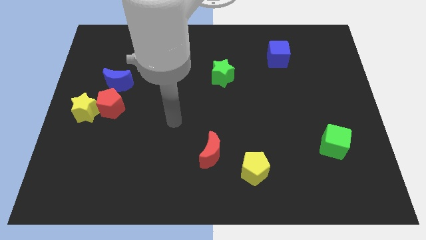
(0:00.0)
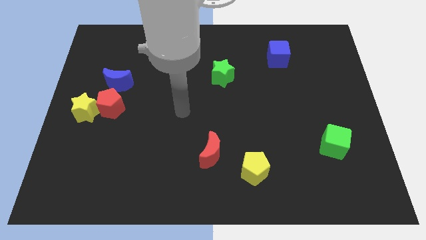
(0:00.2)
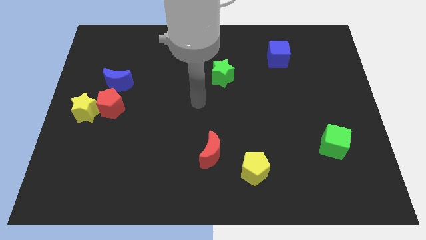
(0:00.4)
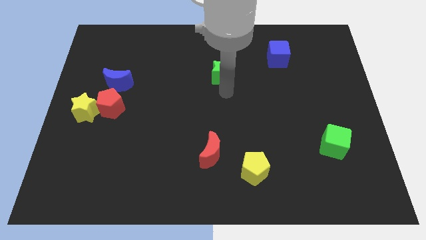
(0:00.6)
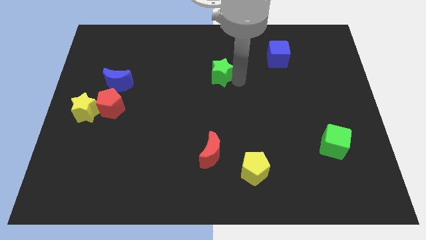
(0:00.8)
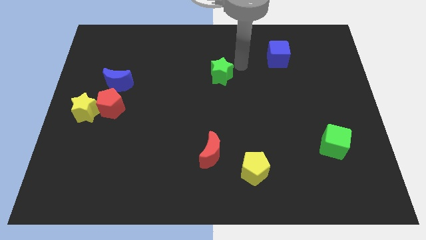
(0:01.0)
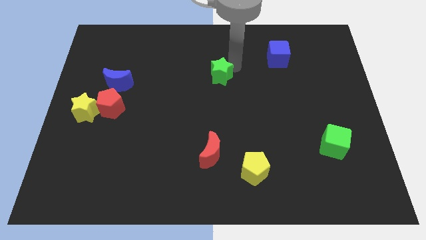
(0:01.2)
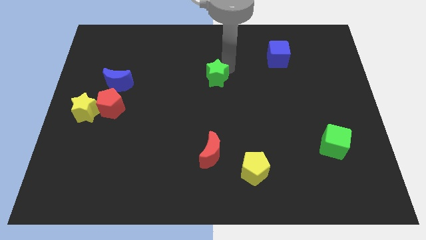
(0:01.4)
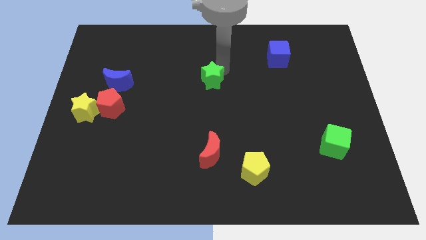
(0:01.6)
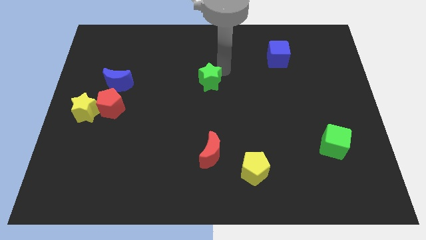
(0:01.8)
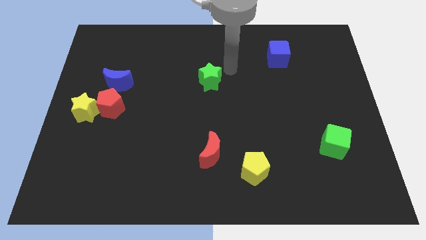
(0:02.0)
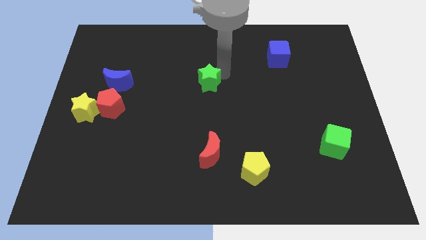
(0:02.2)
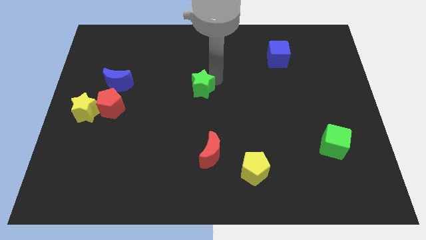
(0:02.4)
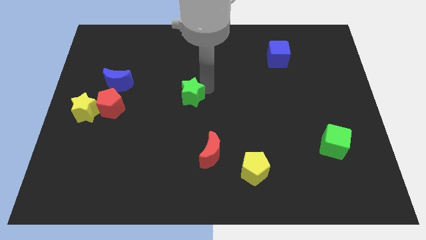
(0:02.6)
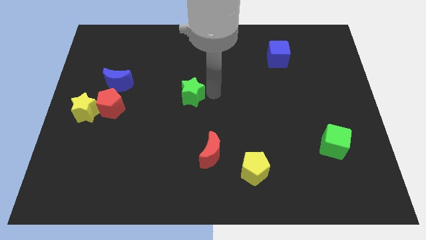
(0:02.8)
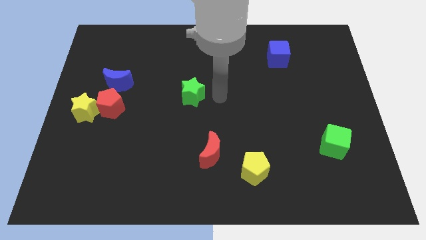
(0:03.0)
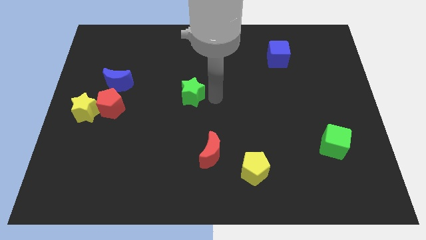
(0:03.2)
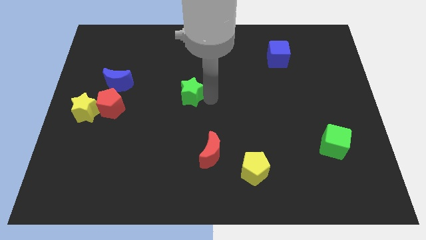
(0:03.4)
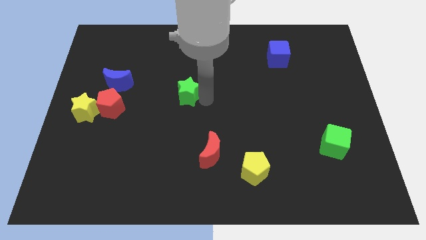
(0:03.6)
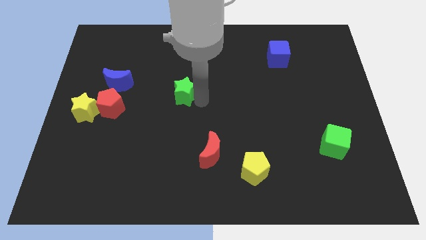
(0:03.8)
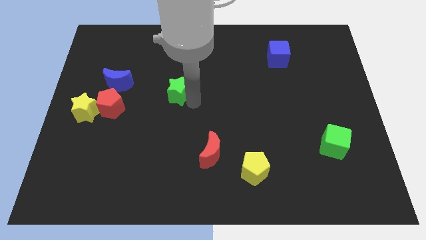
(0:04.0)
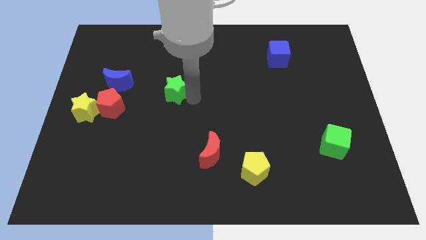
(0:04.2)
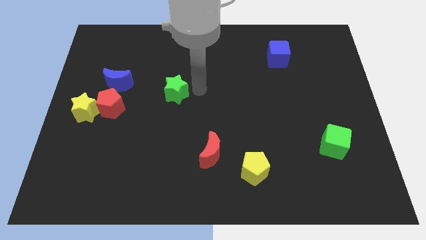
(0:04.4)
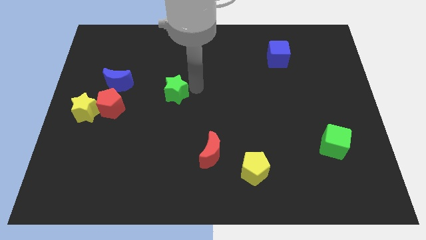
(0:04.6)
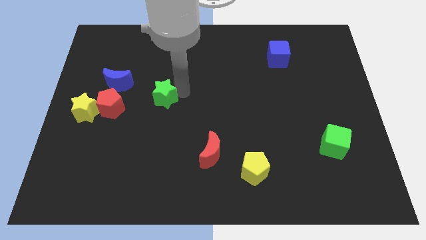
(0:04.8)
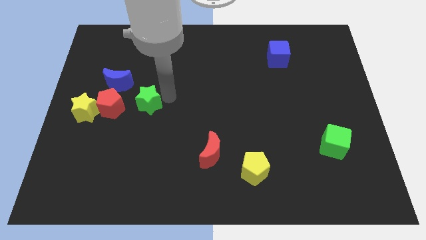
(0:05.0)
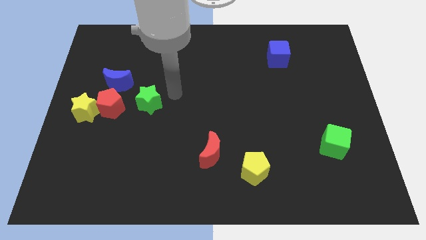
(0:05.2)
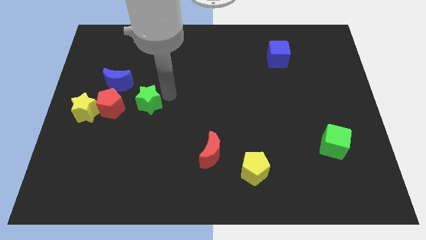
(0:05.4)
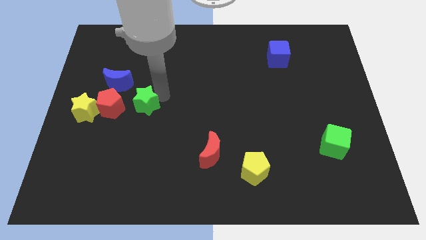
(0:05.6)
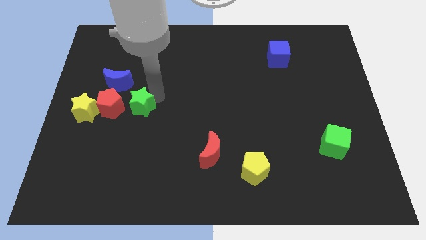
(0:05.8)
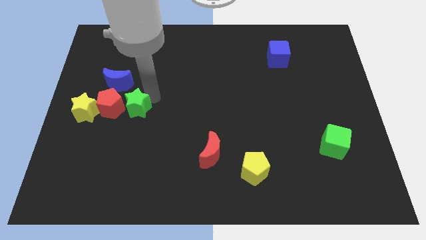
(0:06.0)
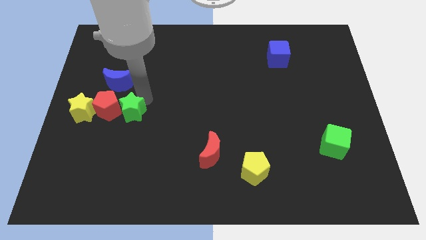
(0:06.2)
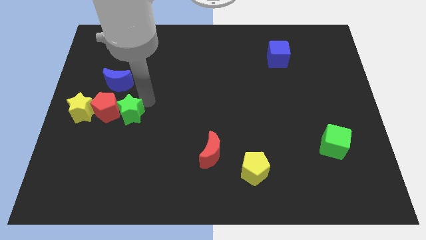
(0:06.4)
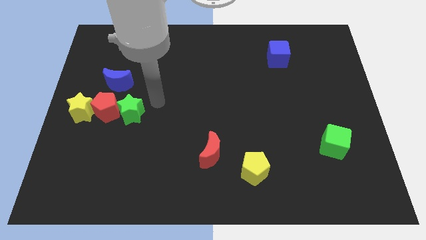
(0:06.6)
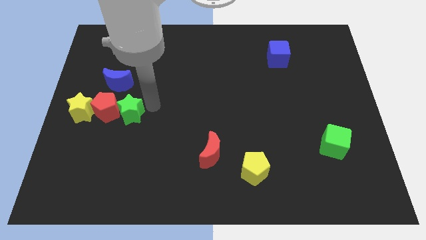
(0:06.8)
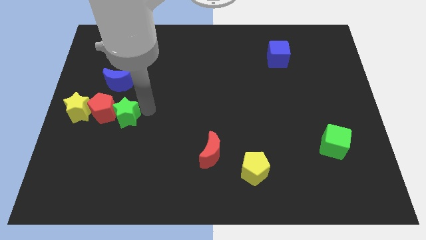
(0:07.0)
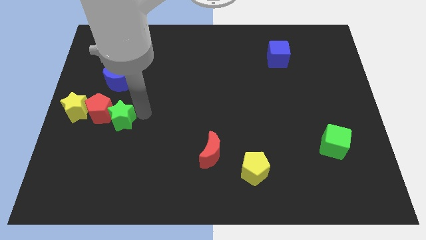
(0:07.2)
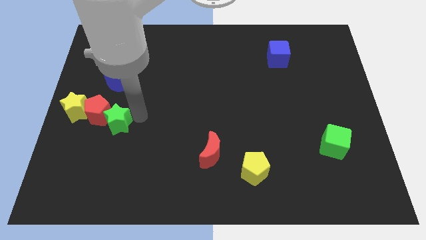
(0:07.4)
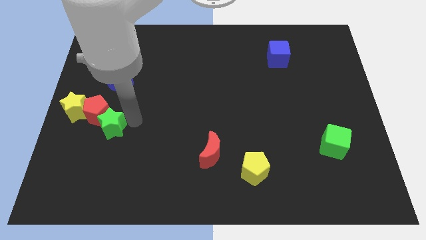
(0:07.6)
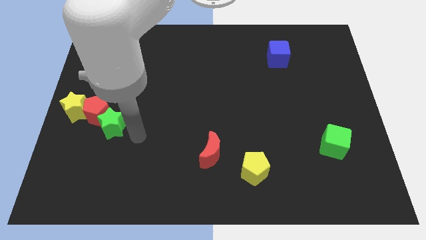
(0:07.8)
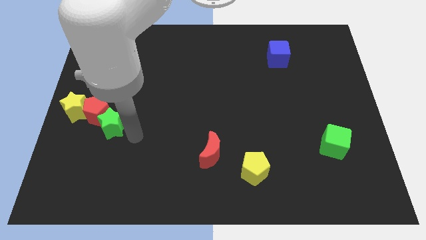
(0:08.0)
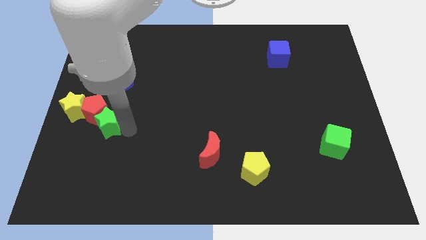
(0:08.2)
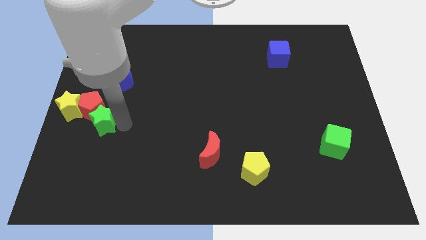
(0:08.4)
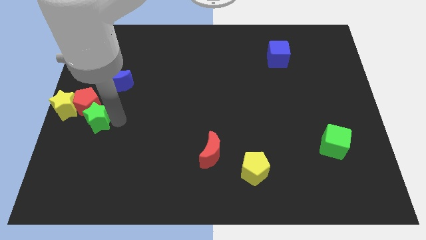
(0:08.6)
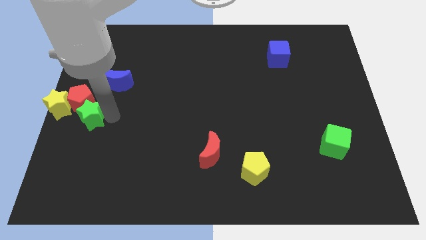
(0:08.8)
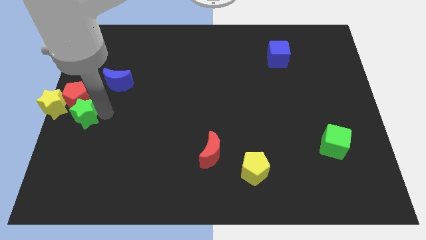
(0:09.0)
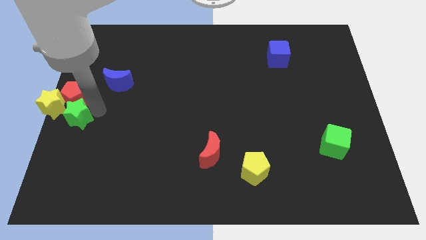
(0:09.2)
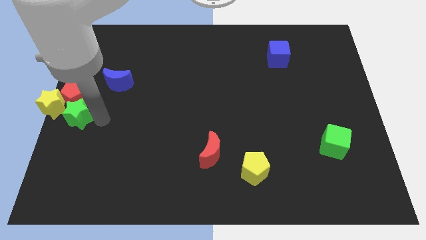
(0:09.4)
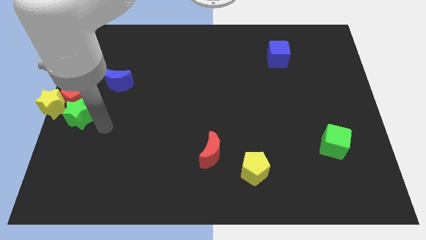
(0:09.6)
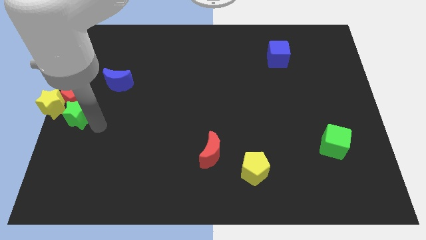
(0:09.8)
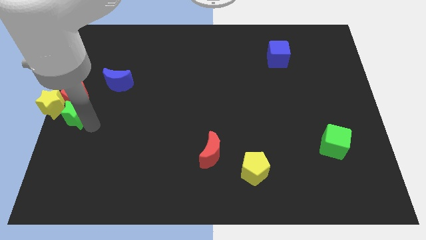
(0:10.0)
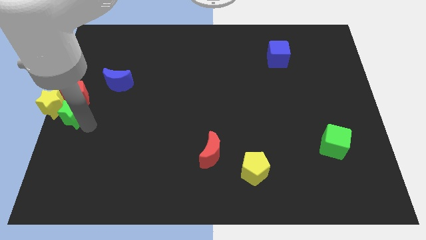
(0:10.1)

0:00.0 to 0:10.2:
put the green star to the yellow star

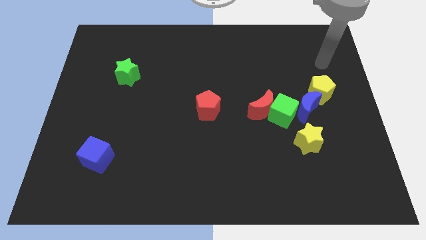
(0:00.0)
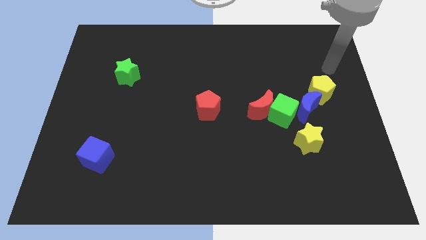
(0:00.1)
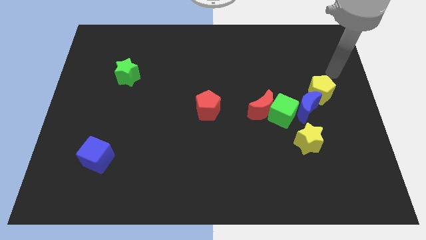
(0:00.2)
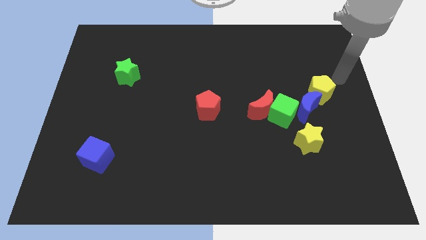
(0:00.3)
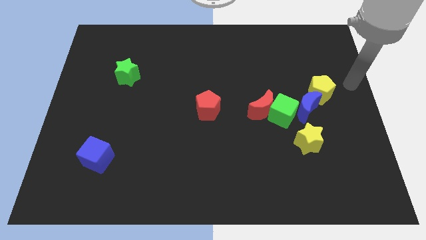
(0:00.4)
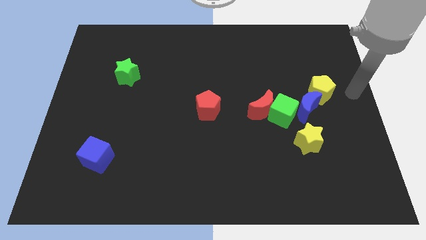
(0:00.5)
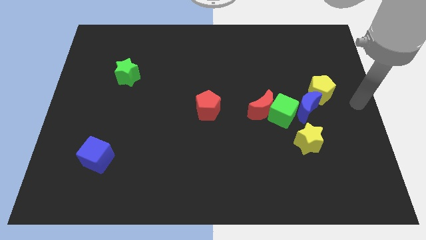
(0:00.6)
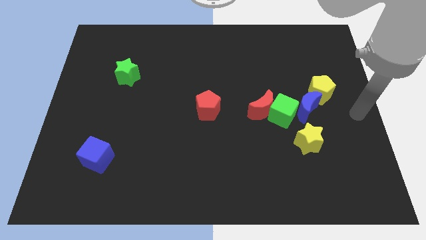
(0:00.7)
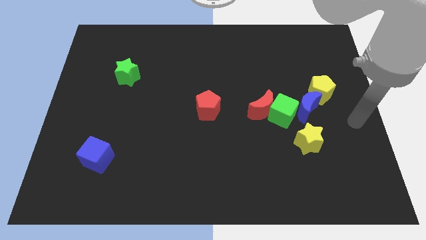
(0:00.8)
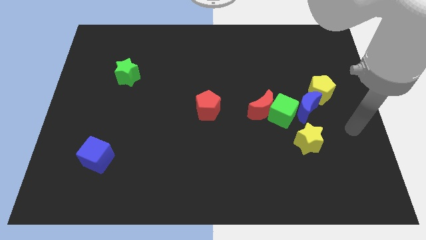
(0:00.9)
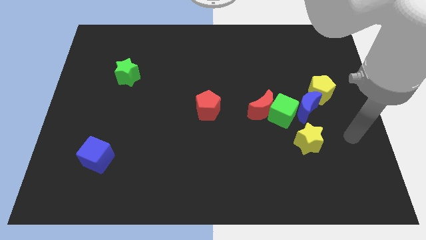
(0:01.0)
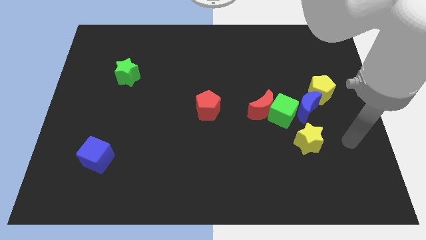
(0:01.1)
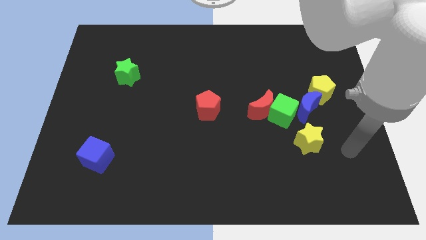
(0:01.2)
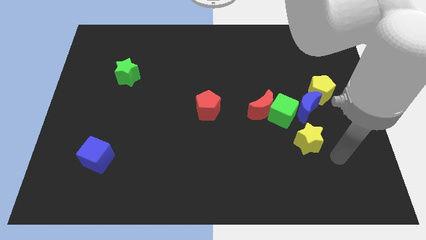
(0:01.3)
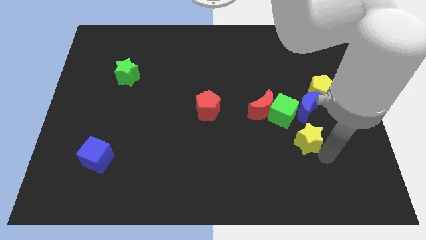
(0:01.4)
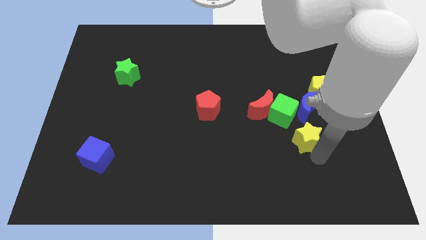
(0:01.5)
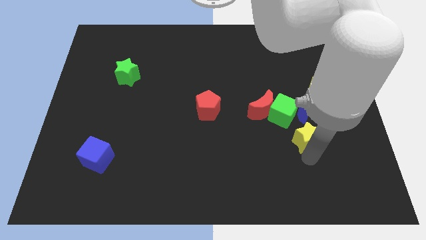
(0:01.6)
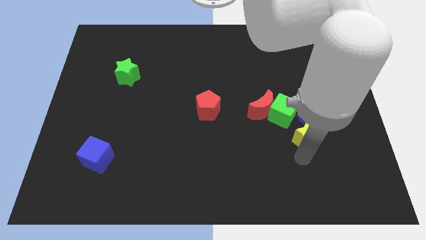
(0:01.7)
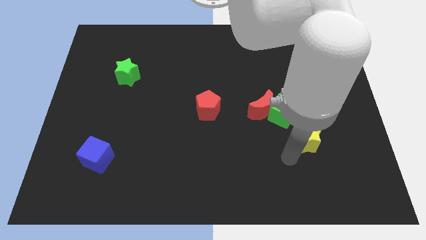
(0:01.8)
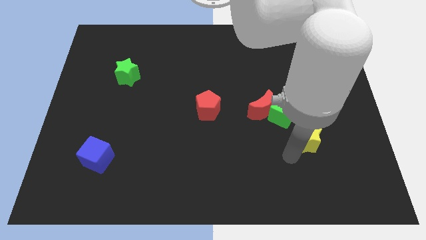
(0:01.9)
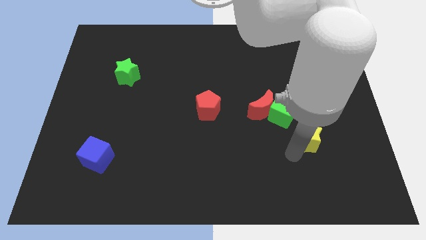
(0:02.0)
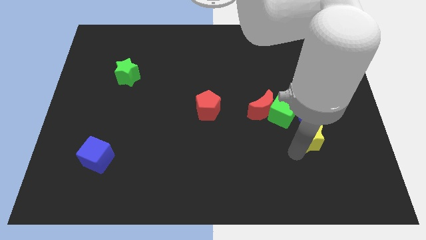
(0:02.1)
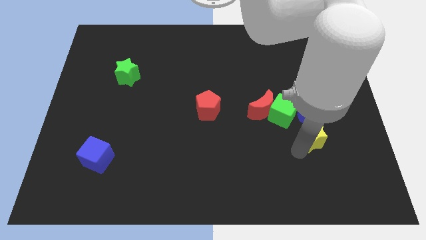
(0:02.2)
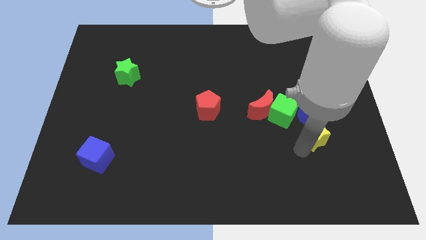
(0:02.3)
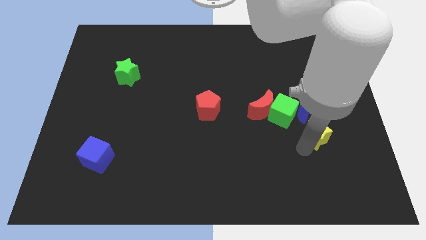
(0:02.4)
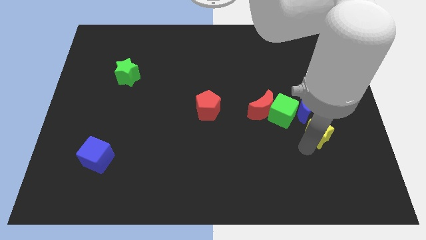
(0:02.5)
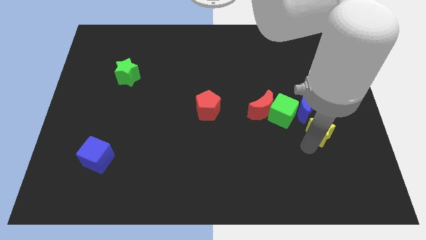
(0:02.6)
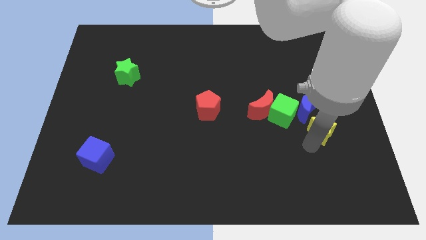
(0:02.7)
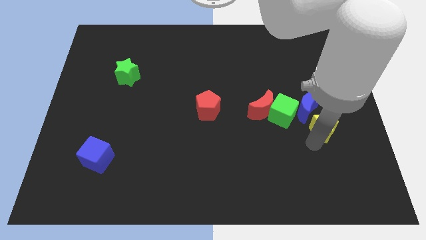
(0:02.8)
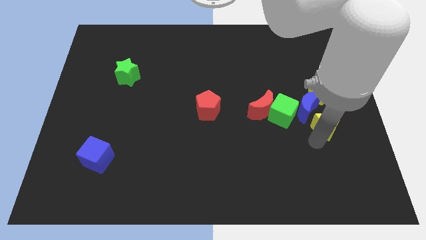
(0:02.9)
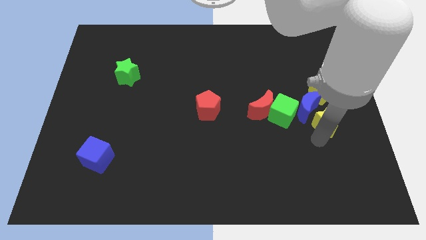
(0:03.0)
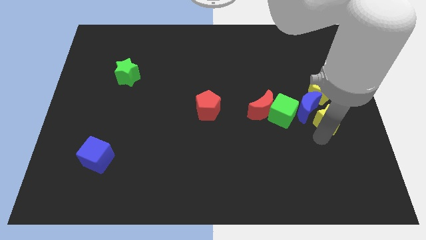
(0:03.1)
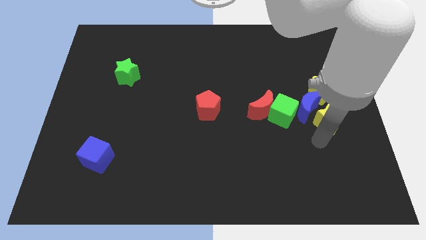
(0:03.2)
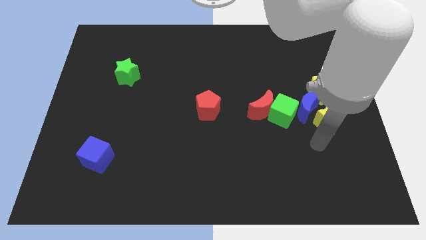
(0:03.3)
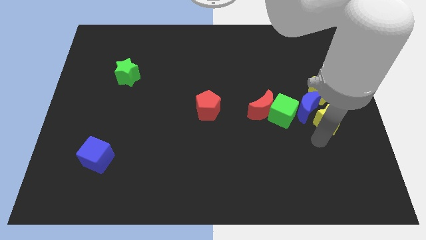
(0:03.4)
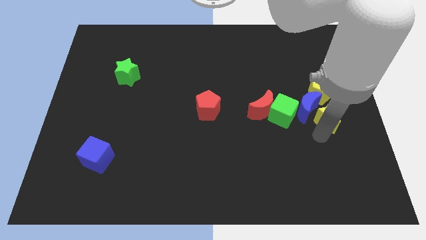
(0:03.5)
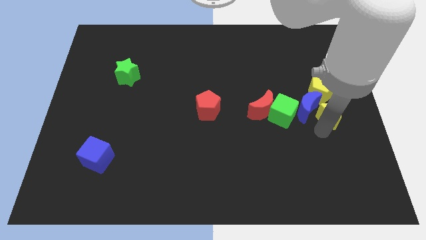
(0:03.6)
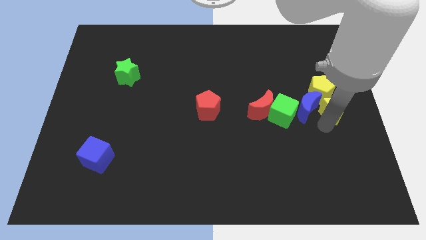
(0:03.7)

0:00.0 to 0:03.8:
move the yellow star close to the yellow pentagon
